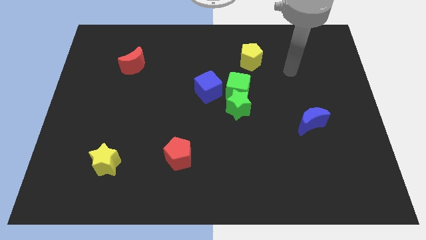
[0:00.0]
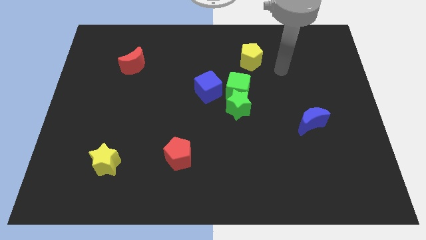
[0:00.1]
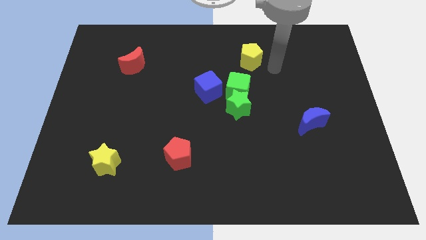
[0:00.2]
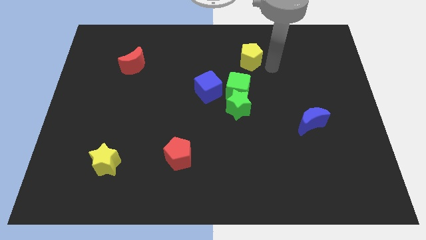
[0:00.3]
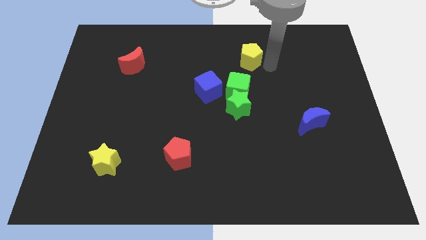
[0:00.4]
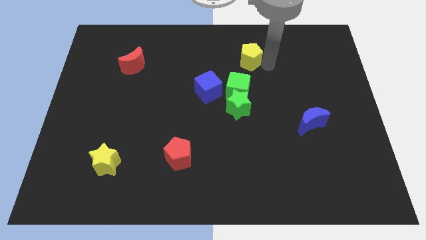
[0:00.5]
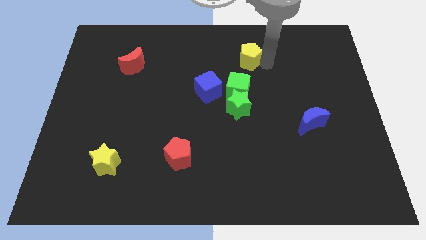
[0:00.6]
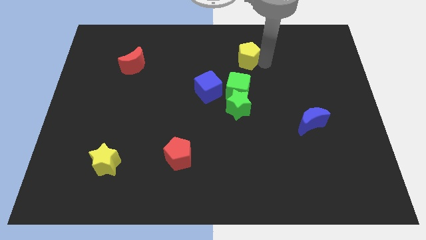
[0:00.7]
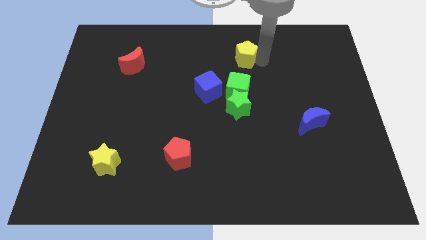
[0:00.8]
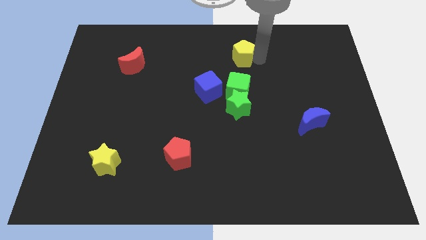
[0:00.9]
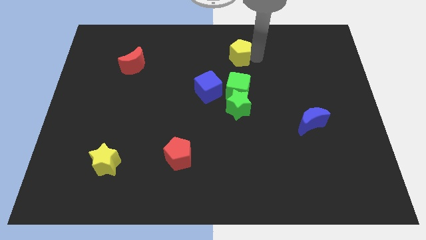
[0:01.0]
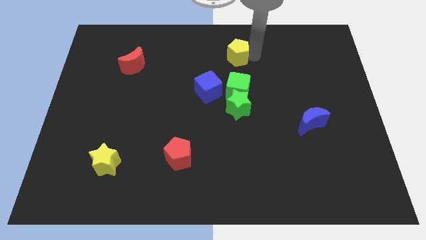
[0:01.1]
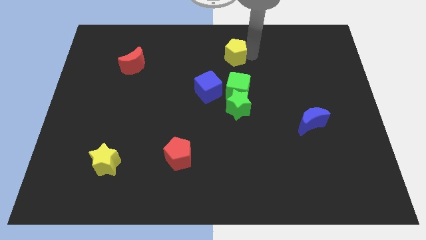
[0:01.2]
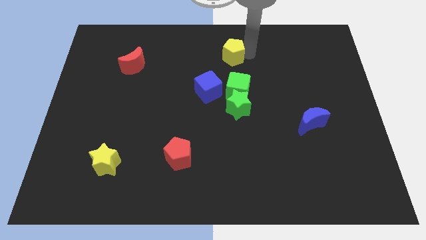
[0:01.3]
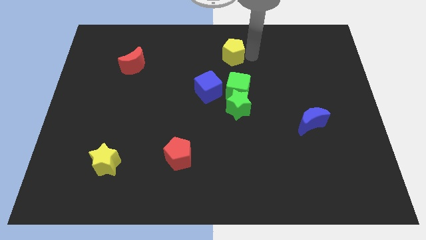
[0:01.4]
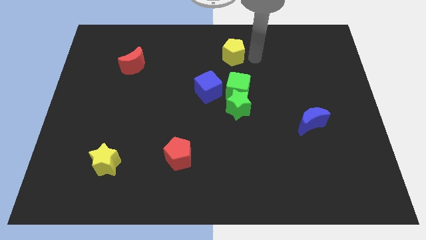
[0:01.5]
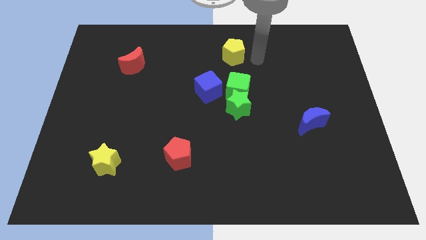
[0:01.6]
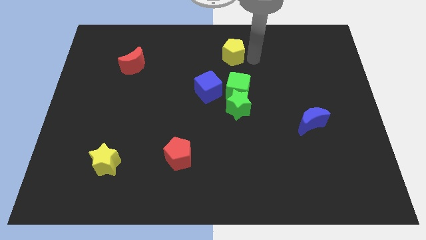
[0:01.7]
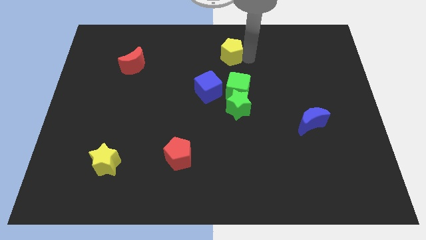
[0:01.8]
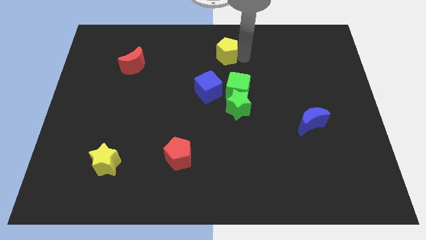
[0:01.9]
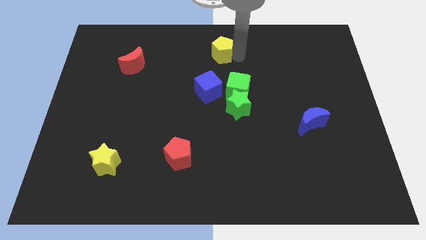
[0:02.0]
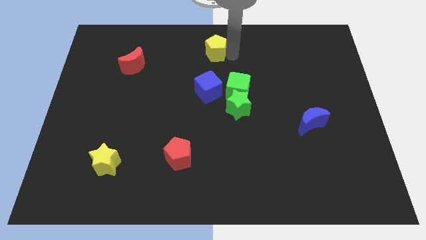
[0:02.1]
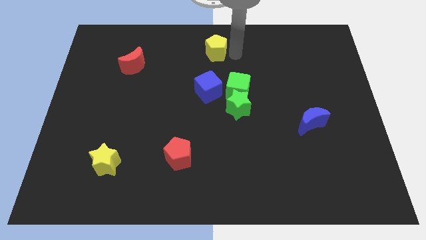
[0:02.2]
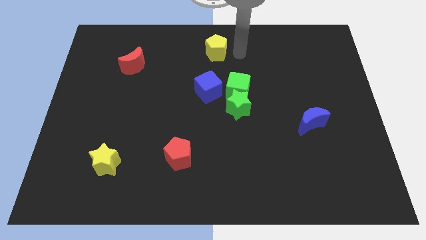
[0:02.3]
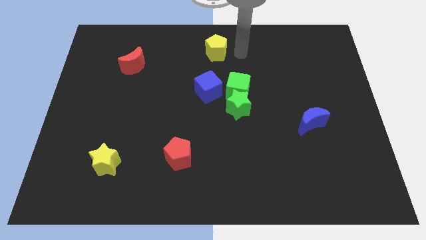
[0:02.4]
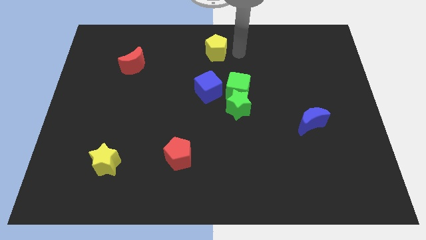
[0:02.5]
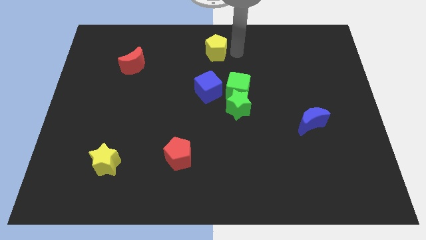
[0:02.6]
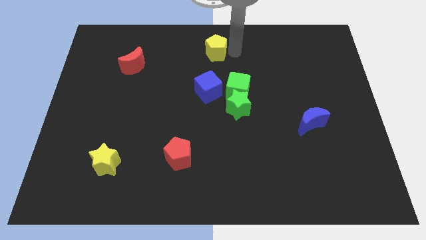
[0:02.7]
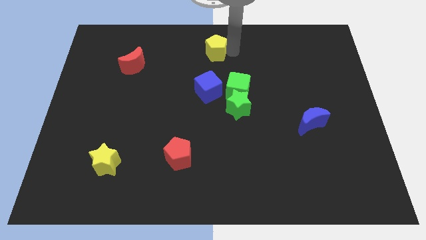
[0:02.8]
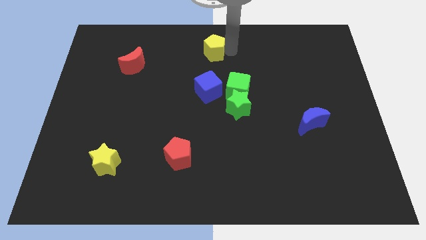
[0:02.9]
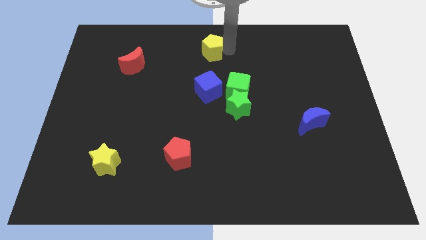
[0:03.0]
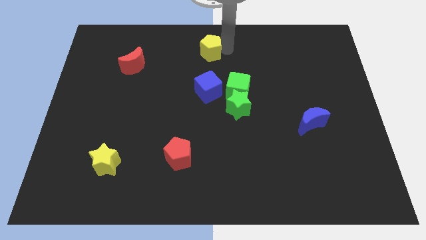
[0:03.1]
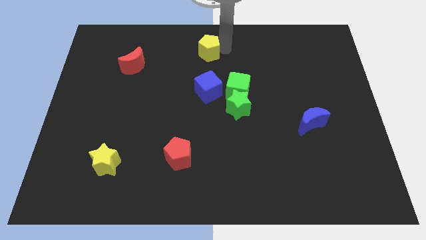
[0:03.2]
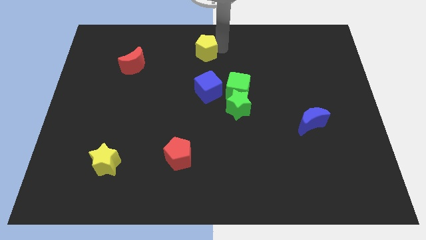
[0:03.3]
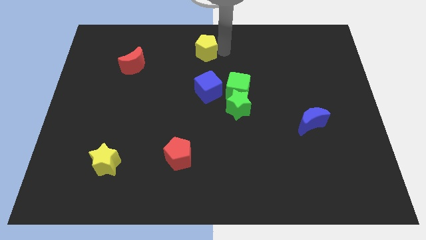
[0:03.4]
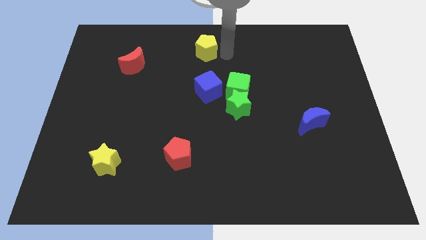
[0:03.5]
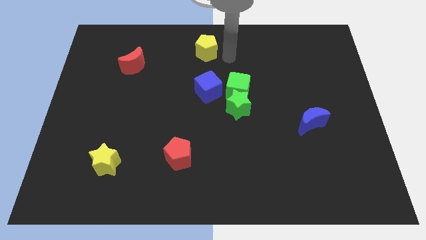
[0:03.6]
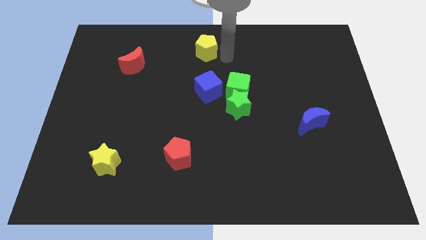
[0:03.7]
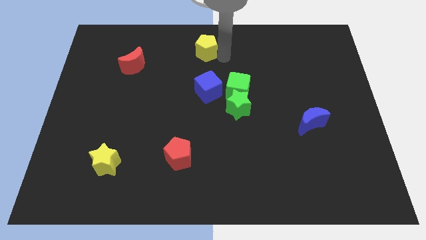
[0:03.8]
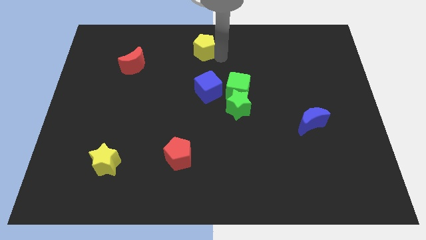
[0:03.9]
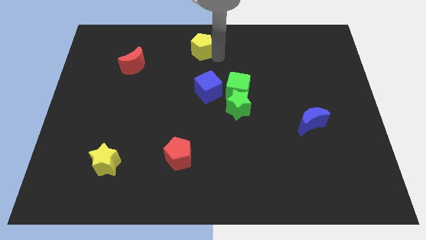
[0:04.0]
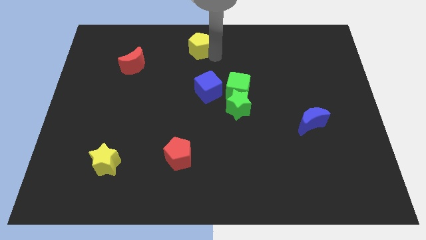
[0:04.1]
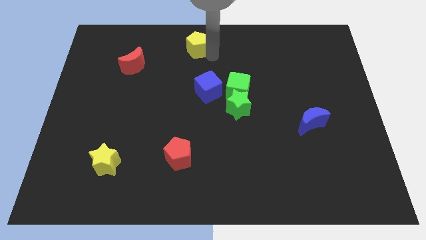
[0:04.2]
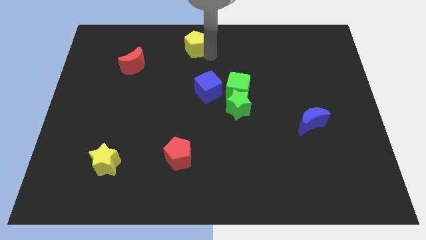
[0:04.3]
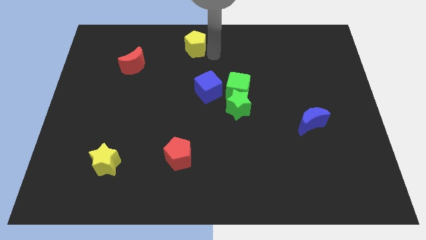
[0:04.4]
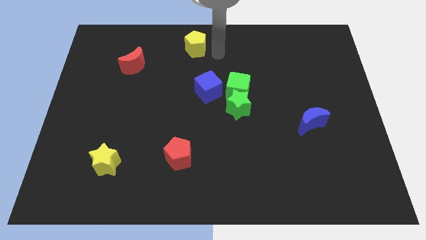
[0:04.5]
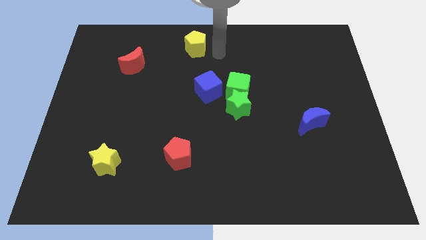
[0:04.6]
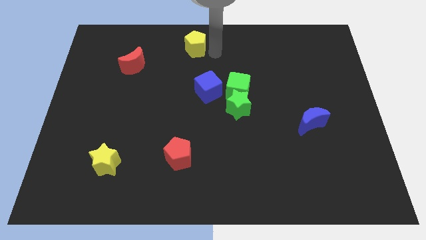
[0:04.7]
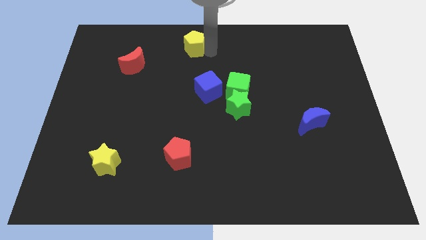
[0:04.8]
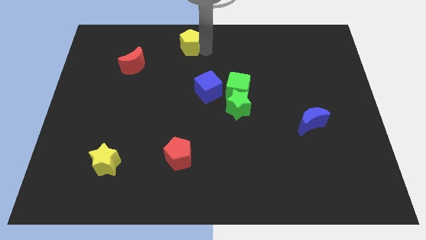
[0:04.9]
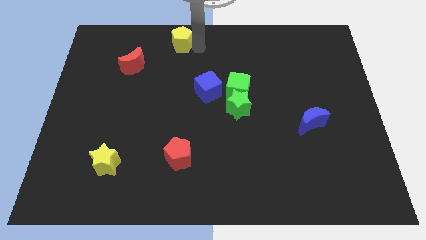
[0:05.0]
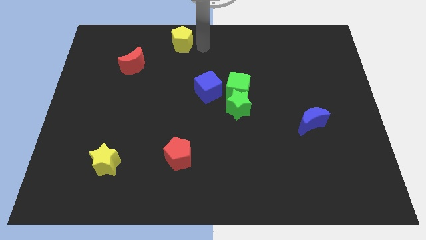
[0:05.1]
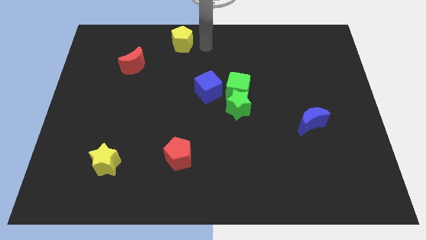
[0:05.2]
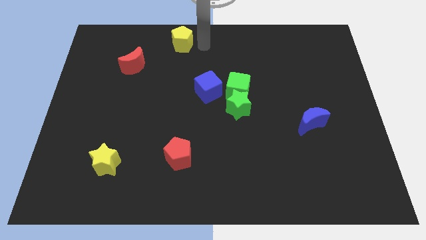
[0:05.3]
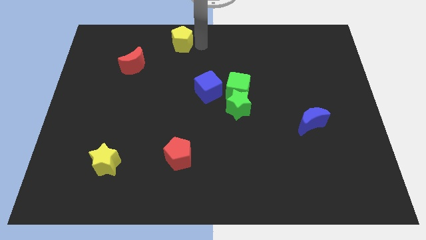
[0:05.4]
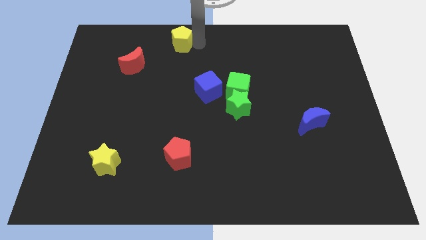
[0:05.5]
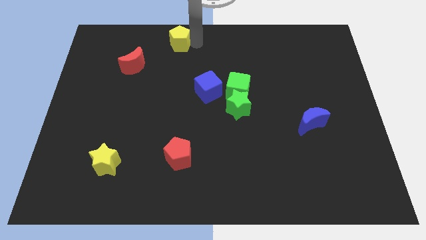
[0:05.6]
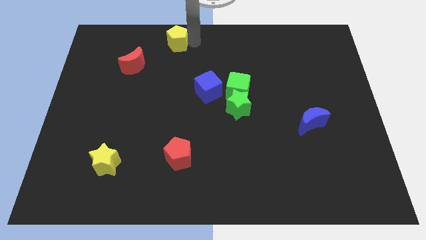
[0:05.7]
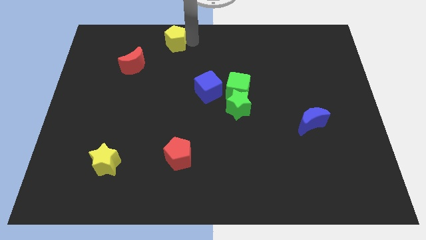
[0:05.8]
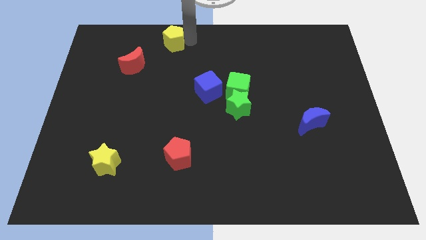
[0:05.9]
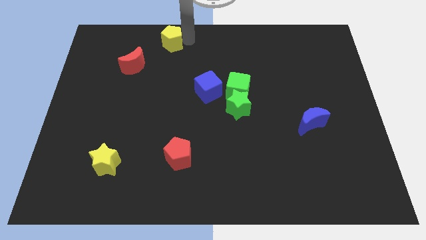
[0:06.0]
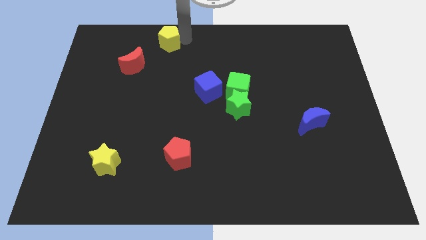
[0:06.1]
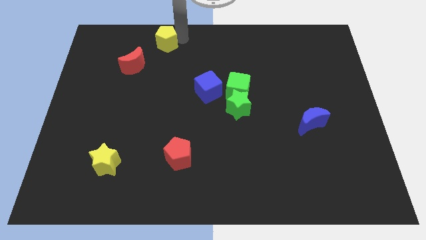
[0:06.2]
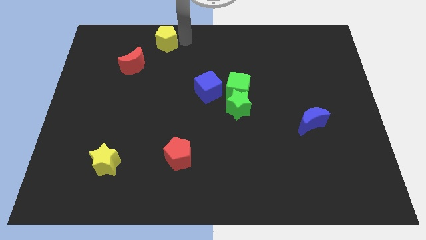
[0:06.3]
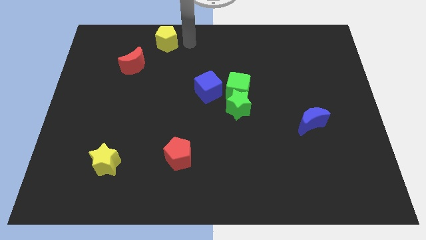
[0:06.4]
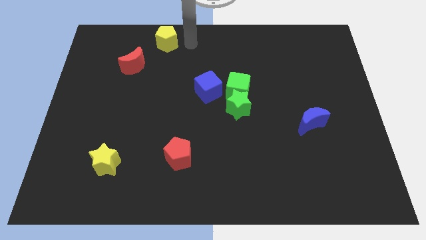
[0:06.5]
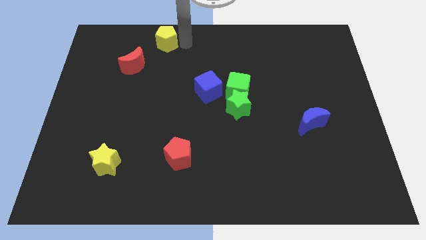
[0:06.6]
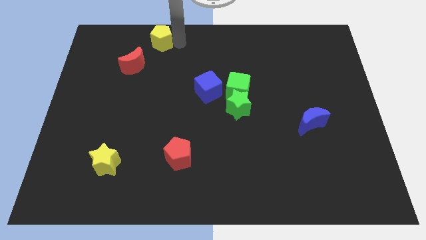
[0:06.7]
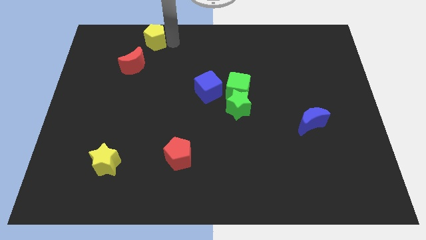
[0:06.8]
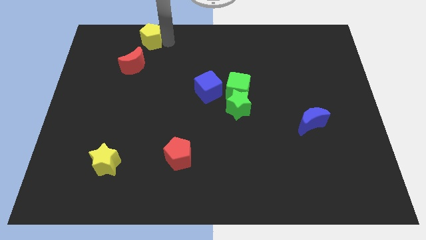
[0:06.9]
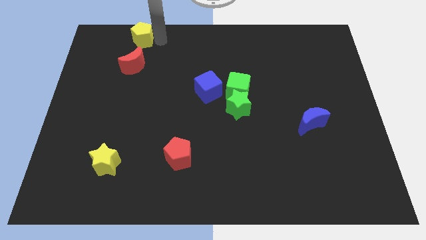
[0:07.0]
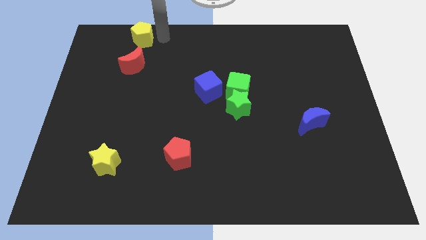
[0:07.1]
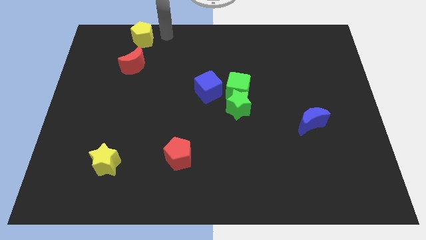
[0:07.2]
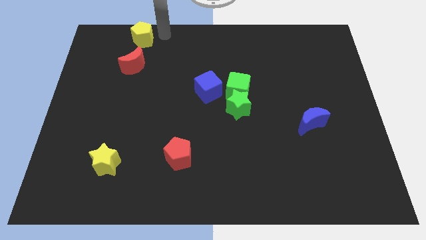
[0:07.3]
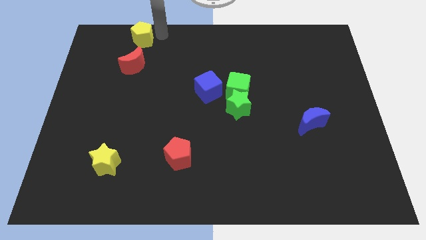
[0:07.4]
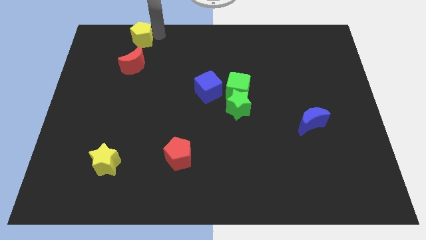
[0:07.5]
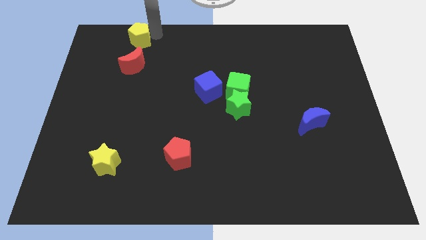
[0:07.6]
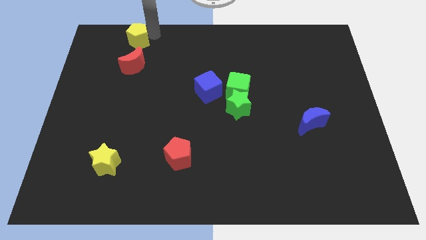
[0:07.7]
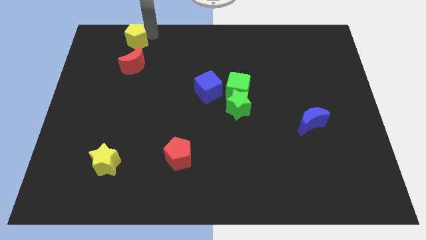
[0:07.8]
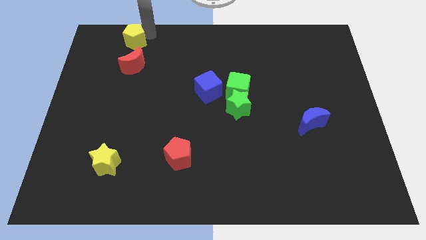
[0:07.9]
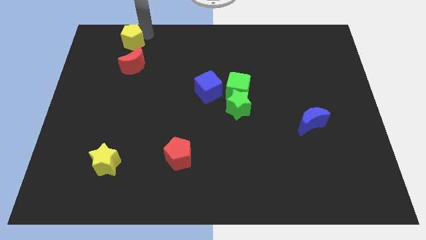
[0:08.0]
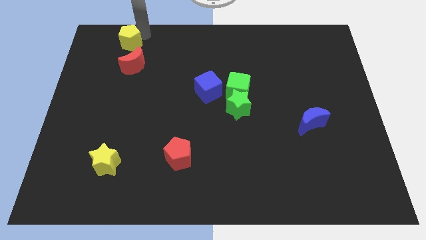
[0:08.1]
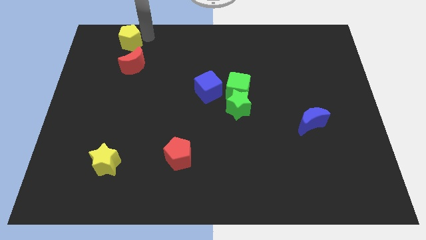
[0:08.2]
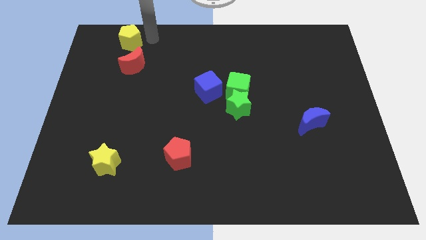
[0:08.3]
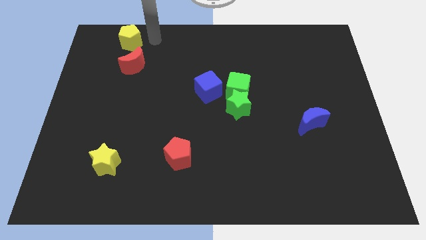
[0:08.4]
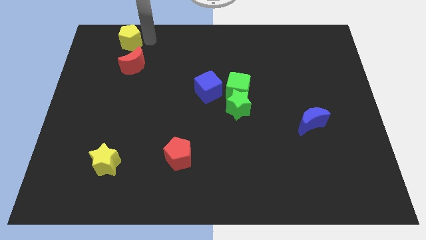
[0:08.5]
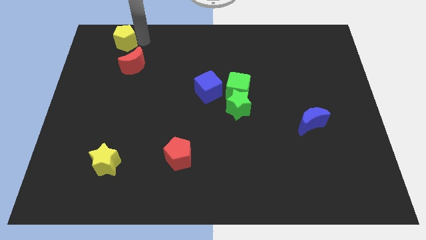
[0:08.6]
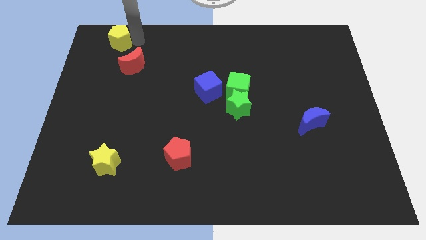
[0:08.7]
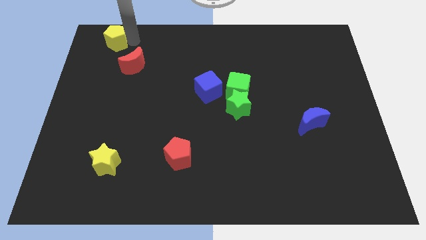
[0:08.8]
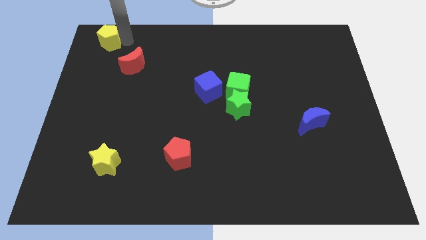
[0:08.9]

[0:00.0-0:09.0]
push the yellow pentagon to the top left corner
